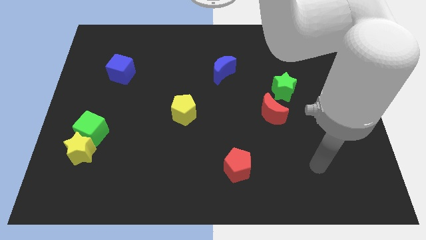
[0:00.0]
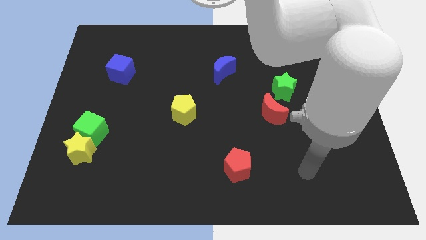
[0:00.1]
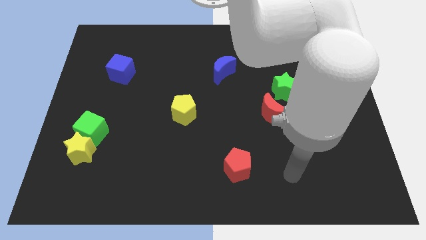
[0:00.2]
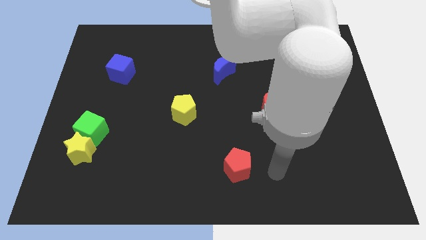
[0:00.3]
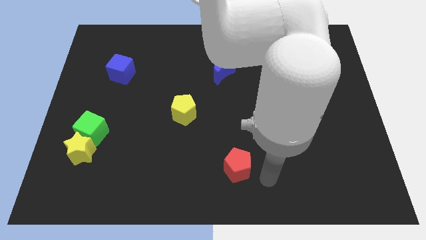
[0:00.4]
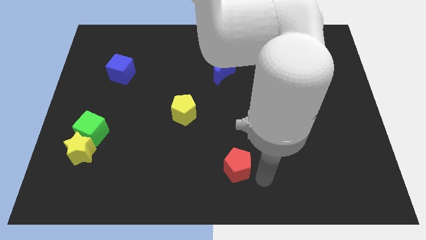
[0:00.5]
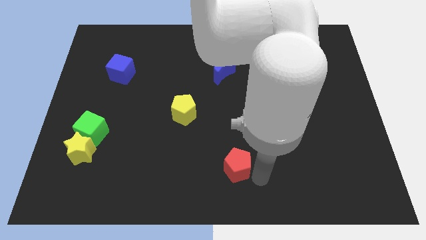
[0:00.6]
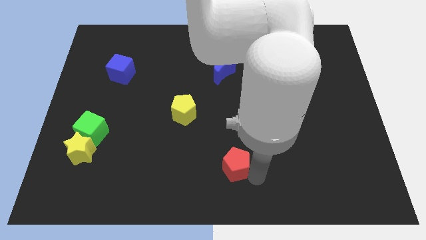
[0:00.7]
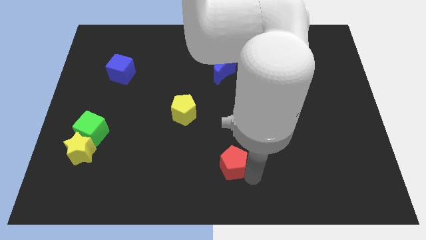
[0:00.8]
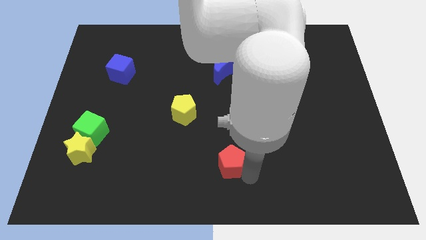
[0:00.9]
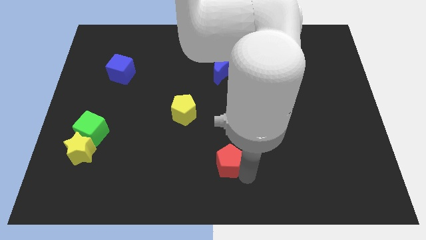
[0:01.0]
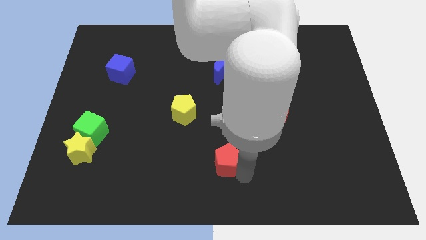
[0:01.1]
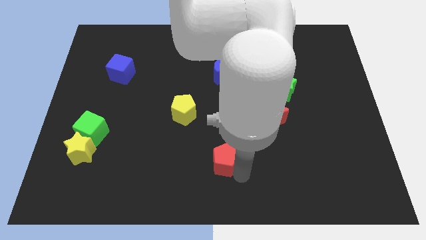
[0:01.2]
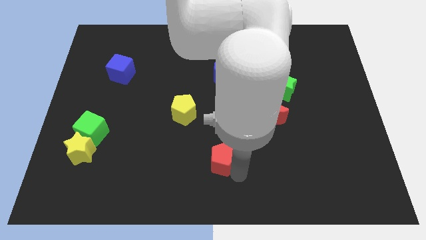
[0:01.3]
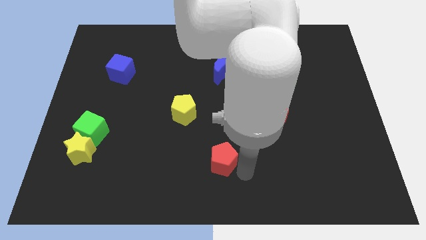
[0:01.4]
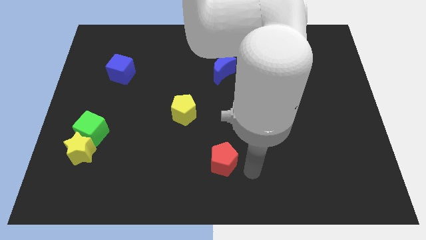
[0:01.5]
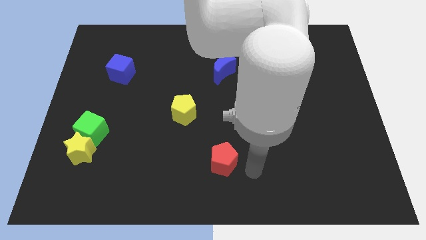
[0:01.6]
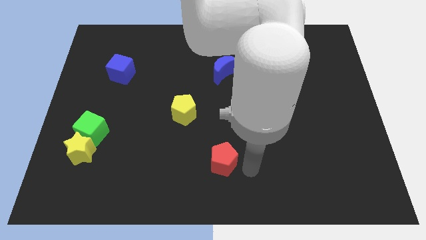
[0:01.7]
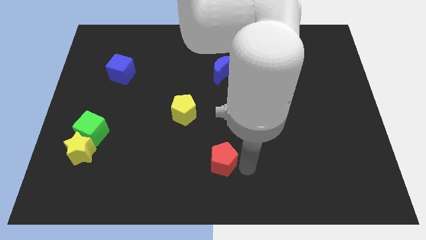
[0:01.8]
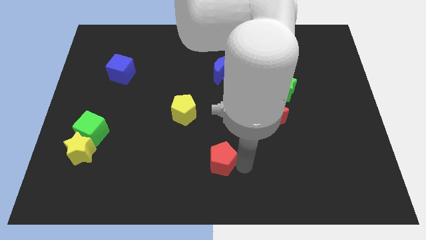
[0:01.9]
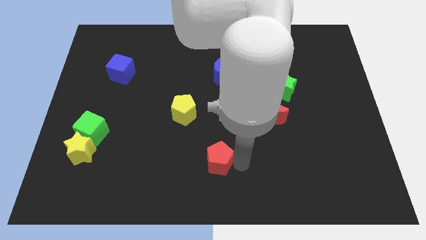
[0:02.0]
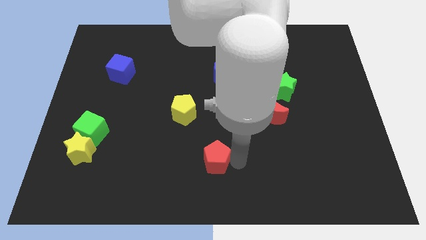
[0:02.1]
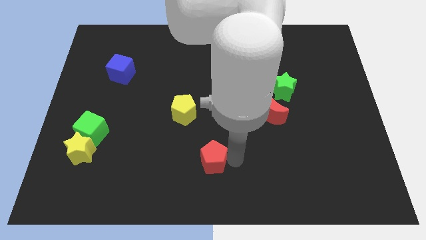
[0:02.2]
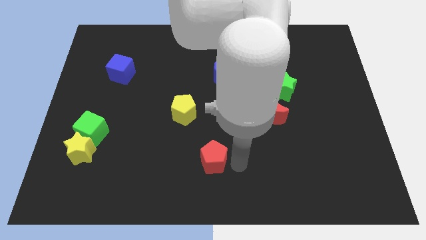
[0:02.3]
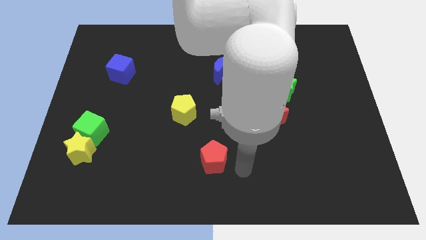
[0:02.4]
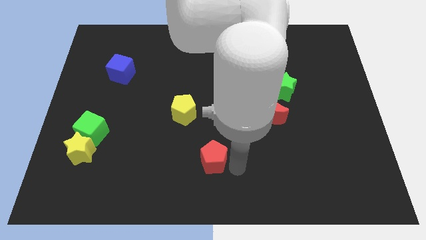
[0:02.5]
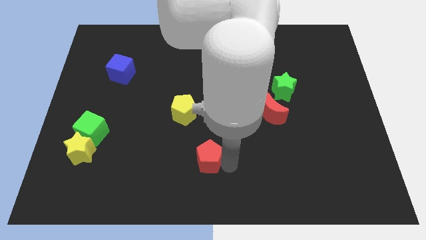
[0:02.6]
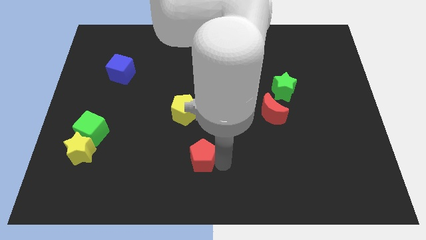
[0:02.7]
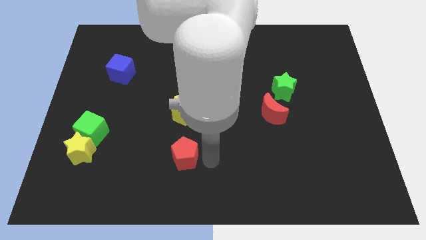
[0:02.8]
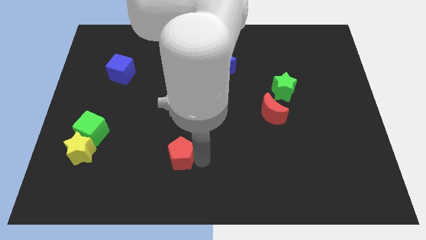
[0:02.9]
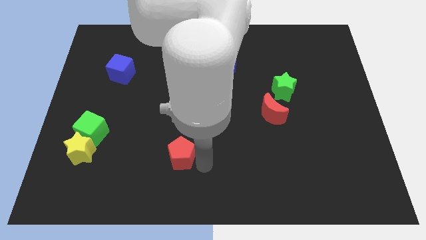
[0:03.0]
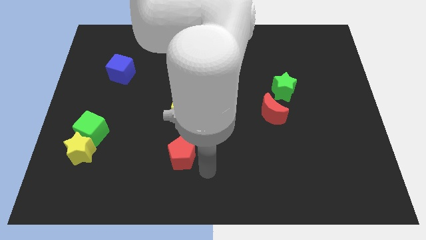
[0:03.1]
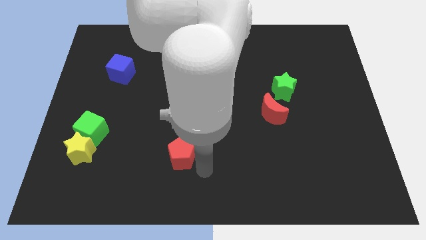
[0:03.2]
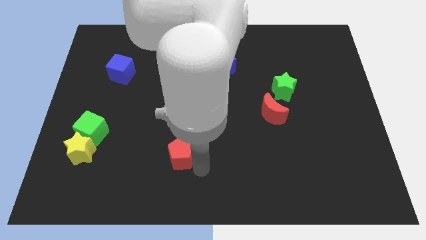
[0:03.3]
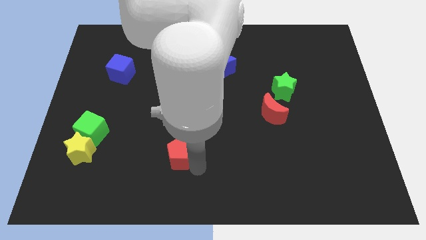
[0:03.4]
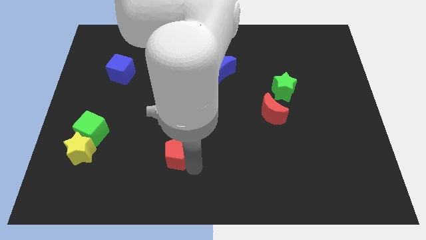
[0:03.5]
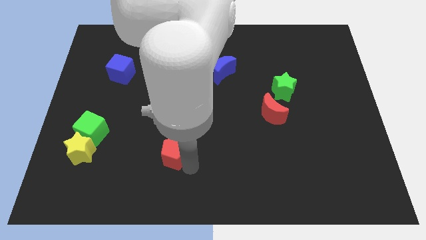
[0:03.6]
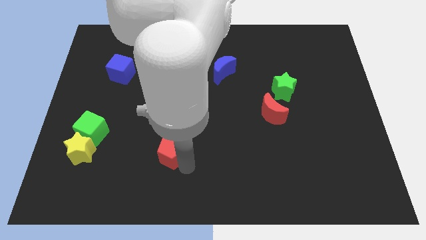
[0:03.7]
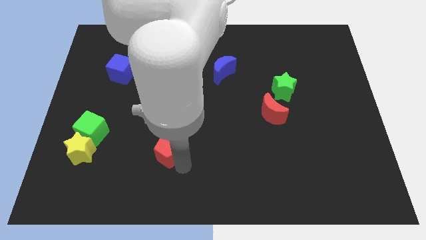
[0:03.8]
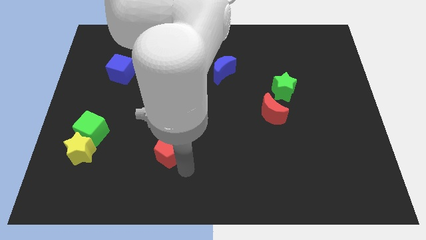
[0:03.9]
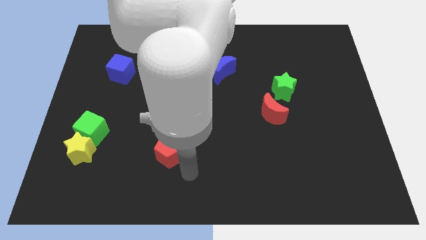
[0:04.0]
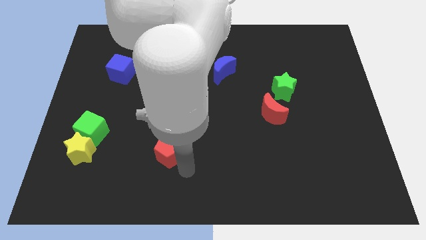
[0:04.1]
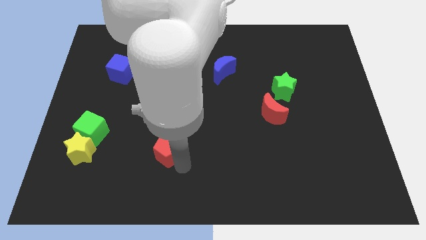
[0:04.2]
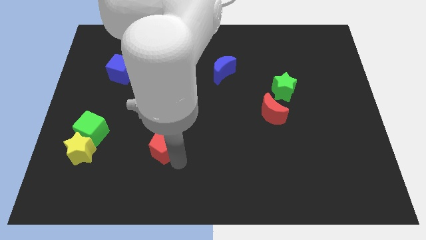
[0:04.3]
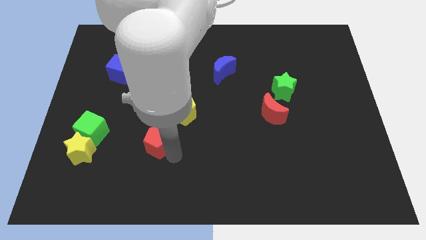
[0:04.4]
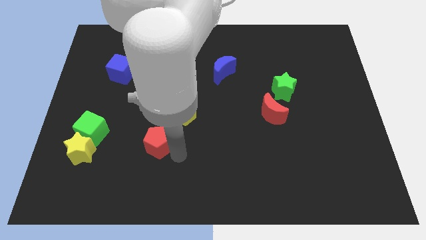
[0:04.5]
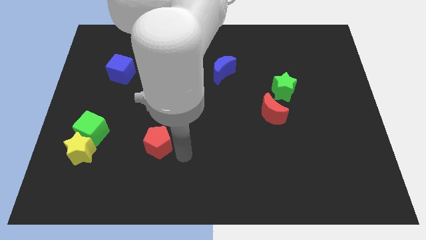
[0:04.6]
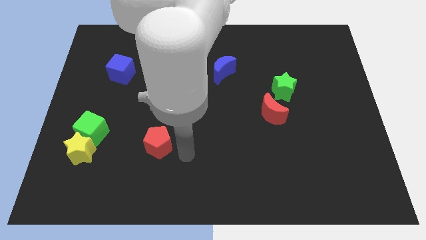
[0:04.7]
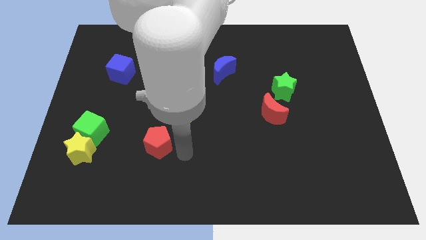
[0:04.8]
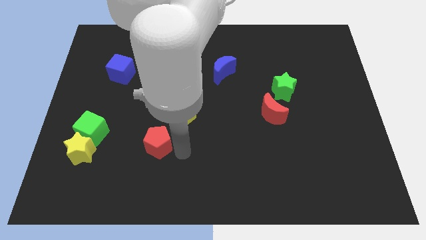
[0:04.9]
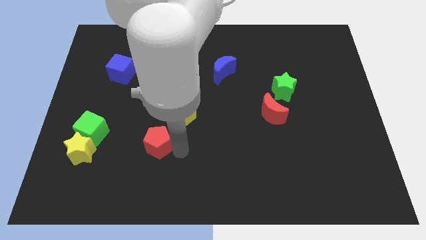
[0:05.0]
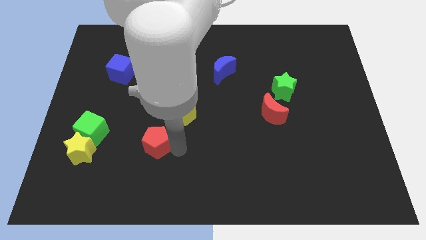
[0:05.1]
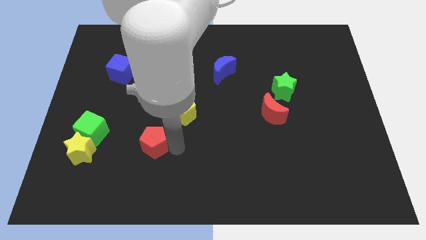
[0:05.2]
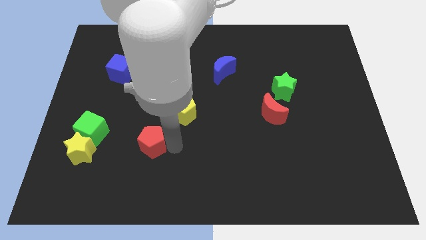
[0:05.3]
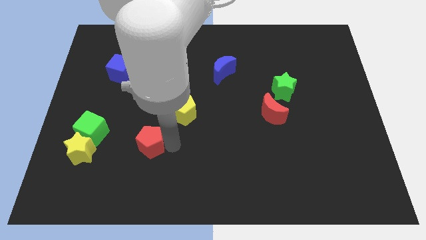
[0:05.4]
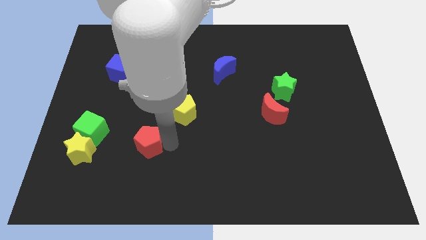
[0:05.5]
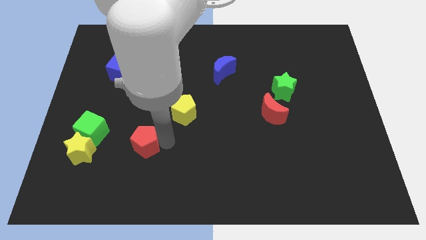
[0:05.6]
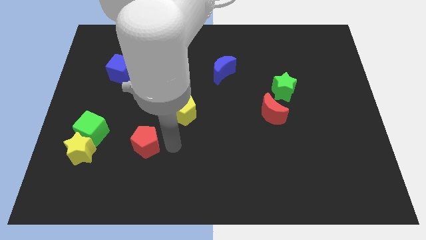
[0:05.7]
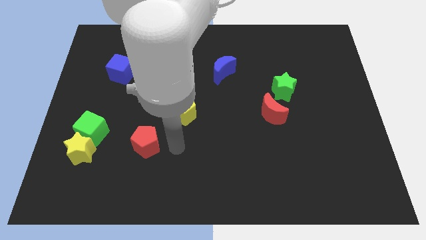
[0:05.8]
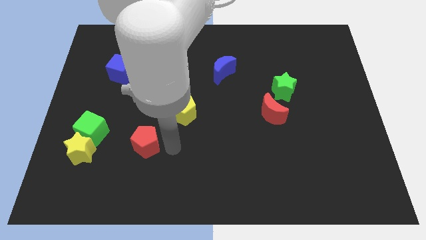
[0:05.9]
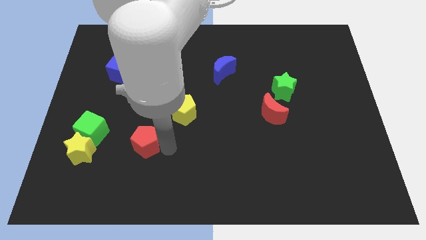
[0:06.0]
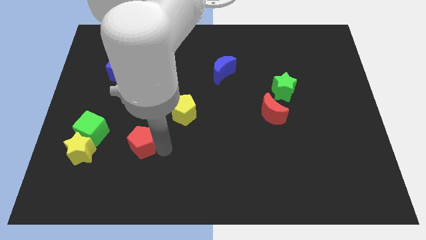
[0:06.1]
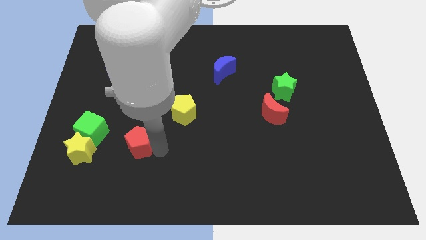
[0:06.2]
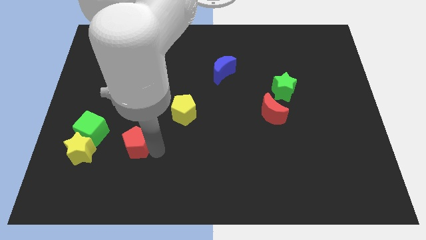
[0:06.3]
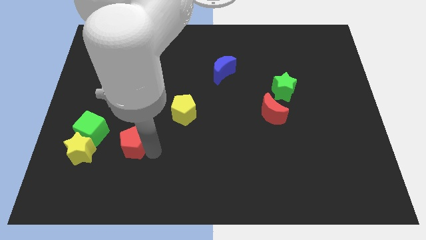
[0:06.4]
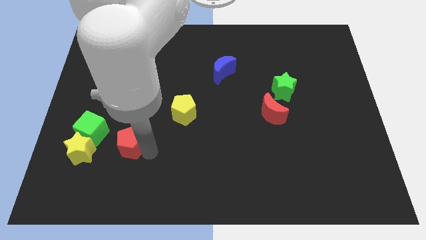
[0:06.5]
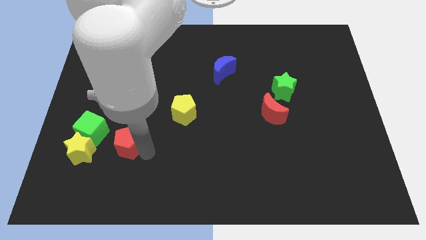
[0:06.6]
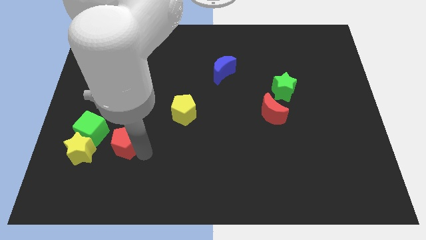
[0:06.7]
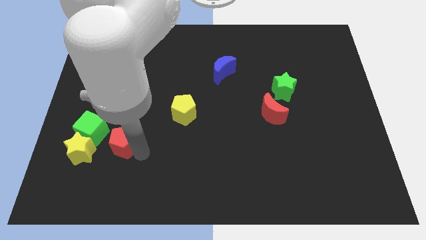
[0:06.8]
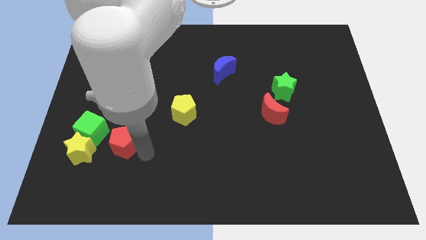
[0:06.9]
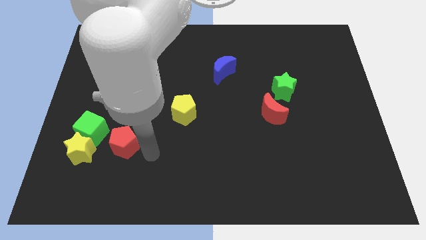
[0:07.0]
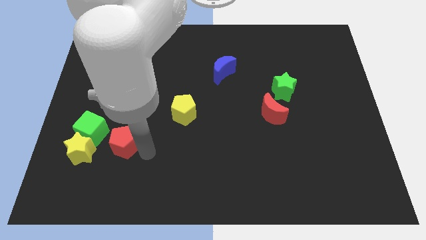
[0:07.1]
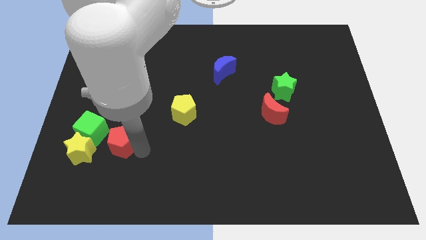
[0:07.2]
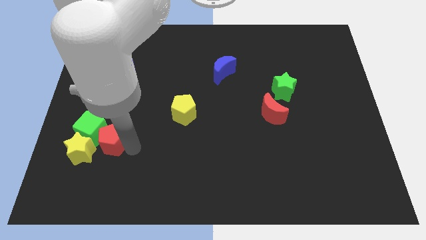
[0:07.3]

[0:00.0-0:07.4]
move the red pentagon close to the green cube

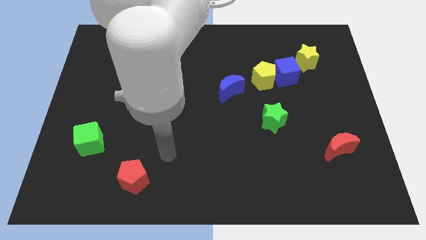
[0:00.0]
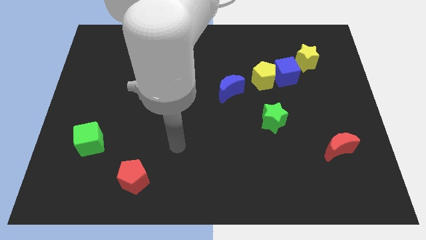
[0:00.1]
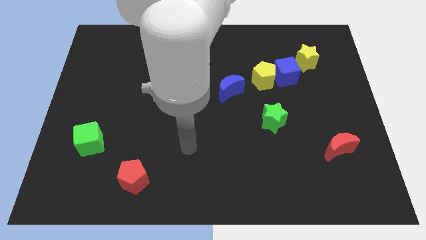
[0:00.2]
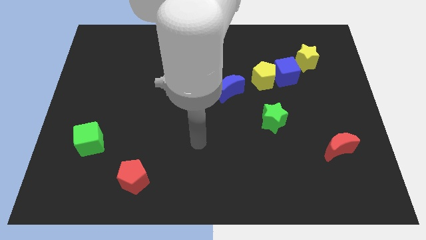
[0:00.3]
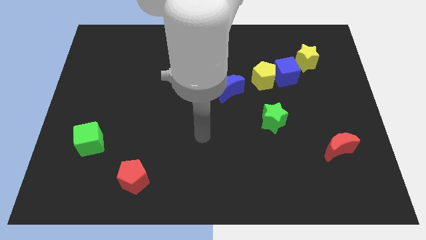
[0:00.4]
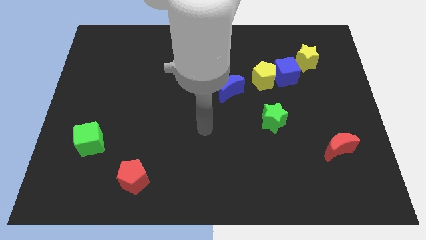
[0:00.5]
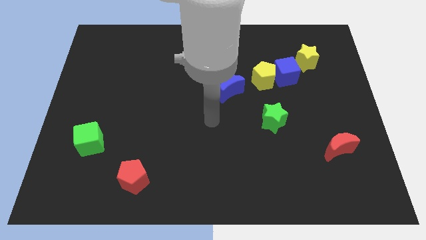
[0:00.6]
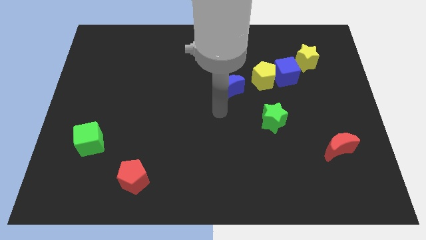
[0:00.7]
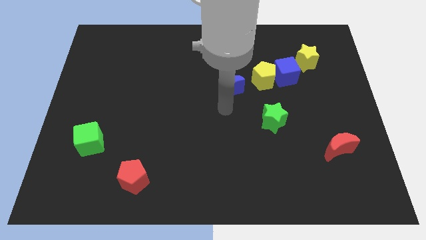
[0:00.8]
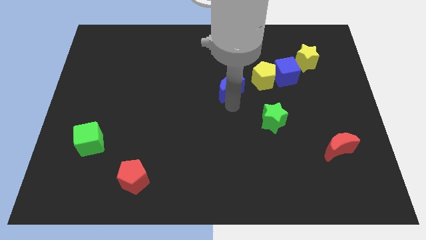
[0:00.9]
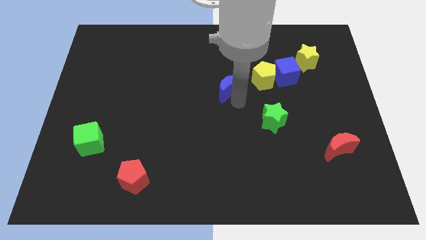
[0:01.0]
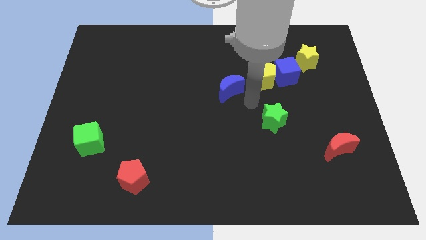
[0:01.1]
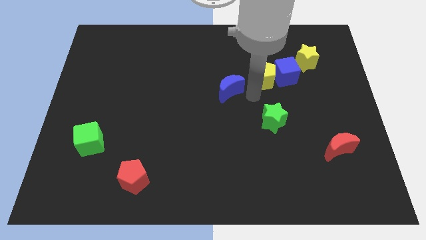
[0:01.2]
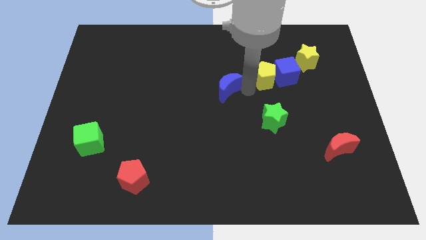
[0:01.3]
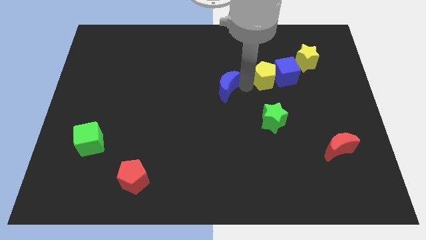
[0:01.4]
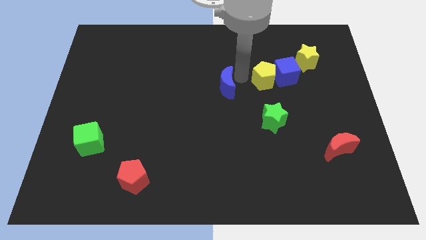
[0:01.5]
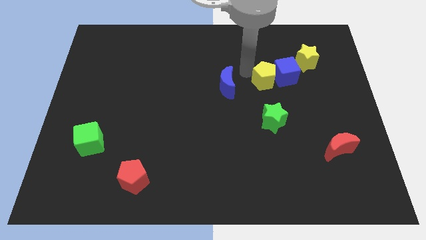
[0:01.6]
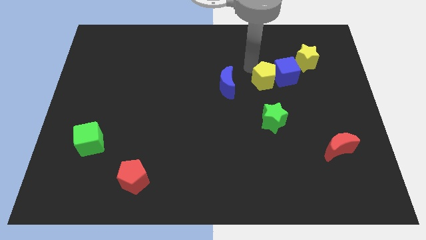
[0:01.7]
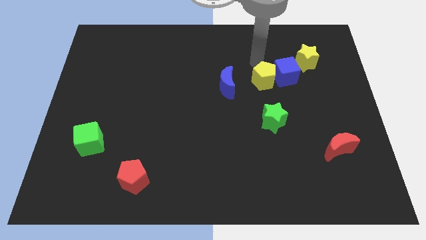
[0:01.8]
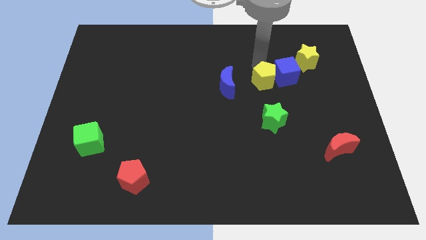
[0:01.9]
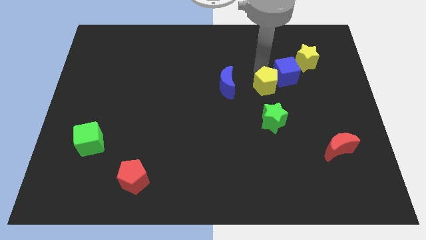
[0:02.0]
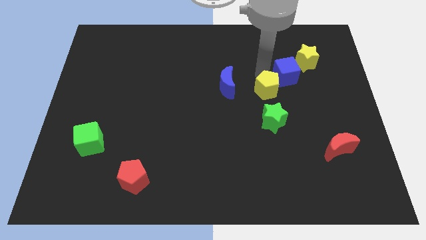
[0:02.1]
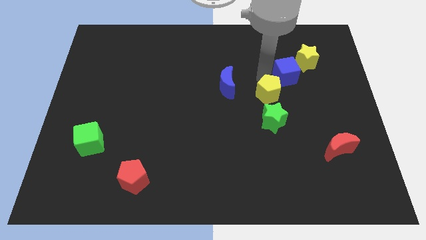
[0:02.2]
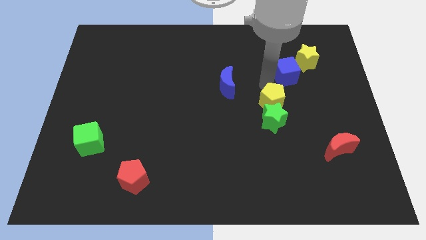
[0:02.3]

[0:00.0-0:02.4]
slide the yellow pentagon to the green star
